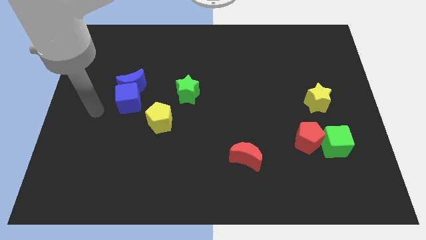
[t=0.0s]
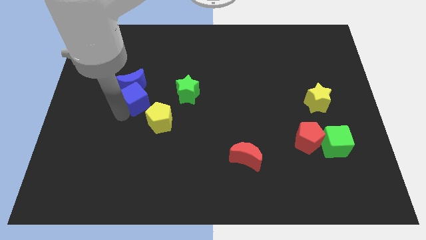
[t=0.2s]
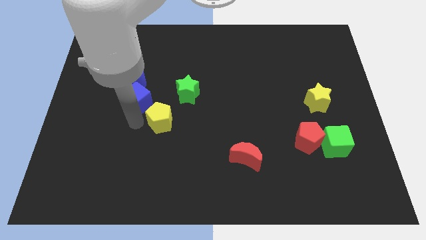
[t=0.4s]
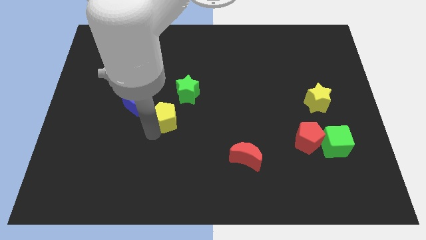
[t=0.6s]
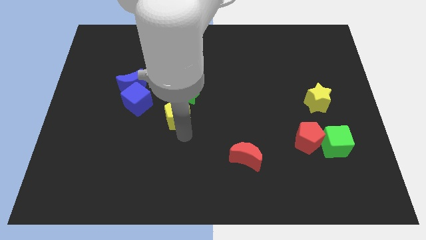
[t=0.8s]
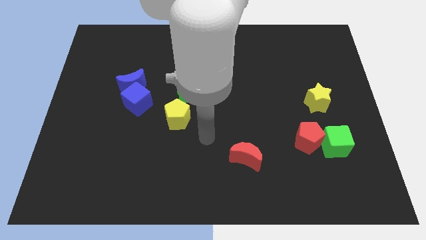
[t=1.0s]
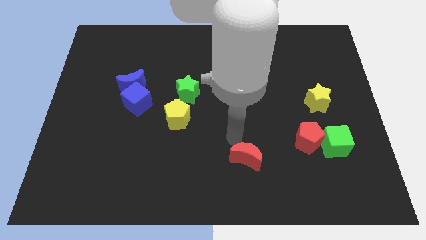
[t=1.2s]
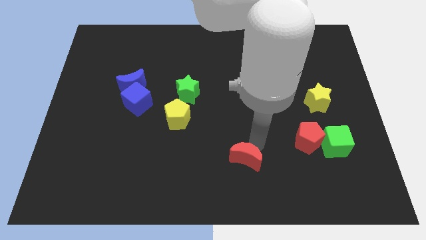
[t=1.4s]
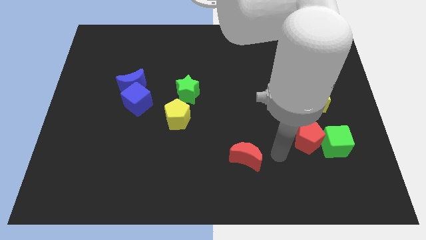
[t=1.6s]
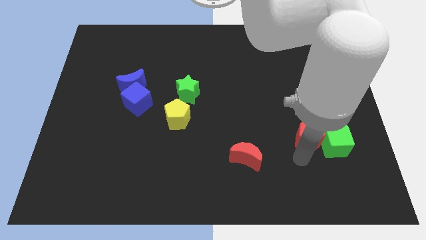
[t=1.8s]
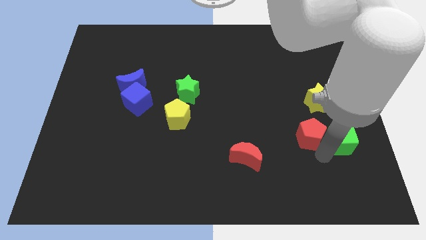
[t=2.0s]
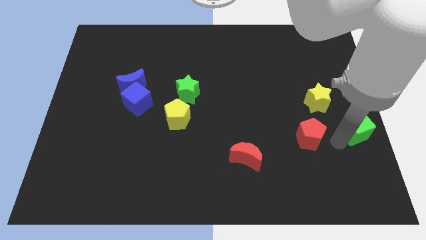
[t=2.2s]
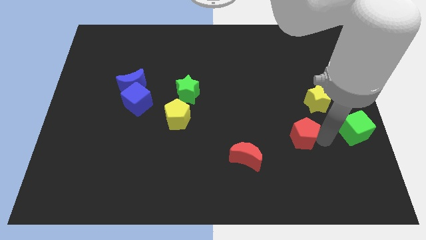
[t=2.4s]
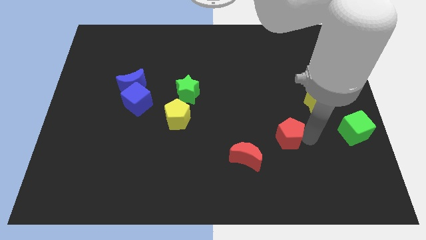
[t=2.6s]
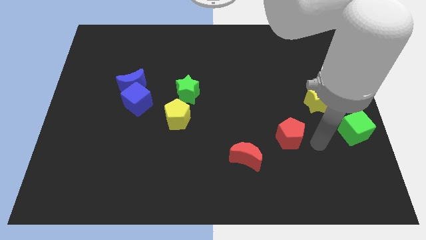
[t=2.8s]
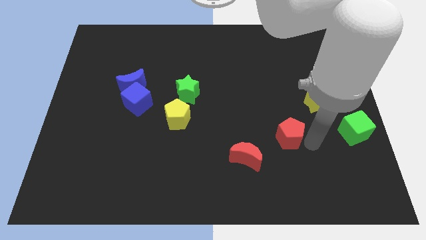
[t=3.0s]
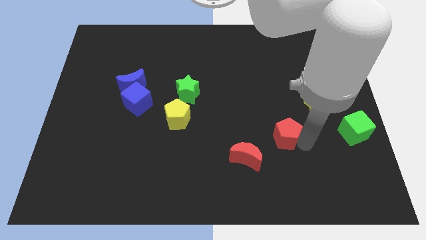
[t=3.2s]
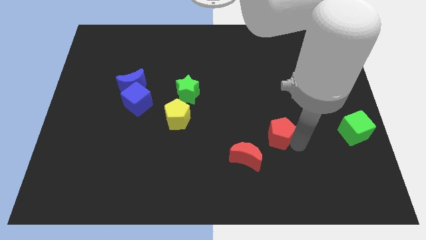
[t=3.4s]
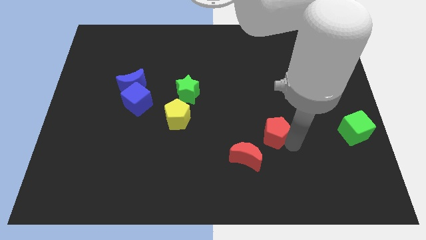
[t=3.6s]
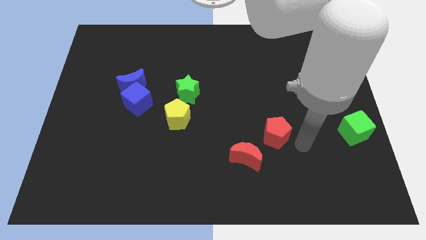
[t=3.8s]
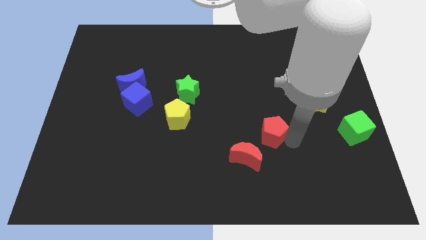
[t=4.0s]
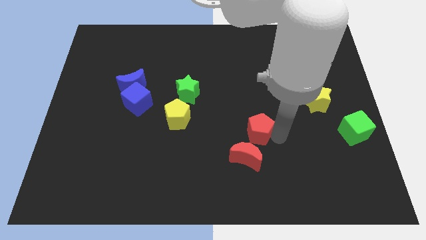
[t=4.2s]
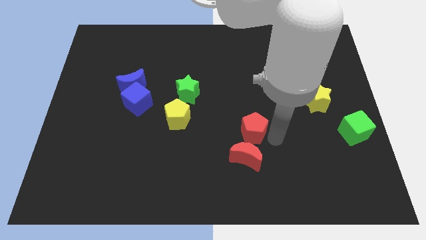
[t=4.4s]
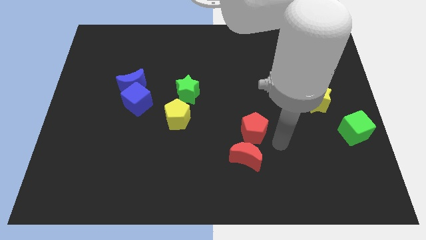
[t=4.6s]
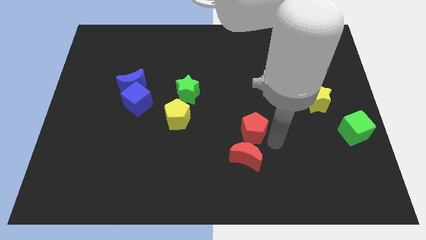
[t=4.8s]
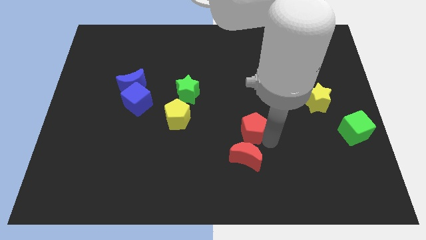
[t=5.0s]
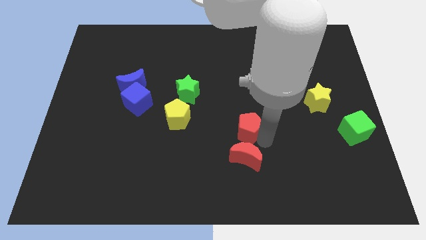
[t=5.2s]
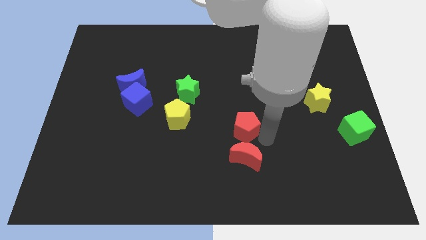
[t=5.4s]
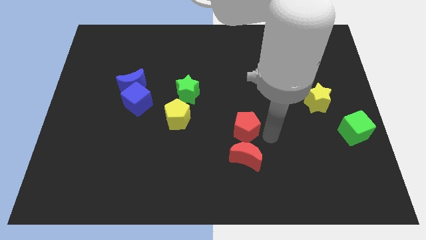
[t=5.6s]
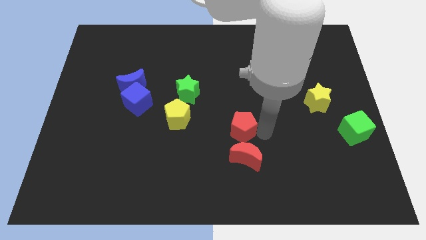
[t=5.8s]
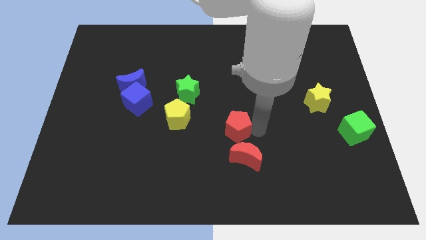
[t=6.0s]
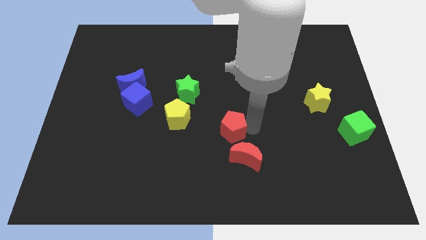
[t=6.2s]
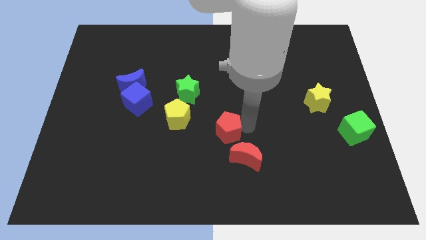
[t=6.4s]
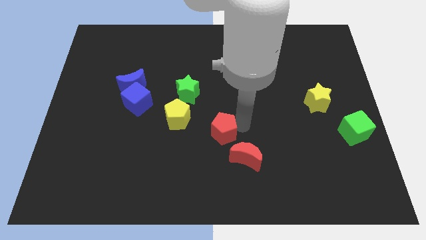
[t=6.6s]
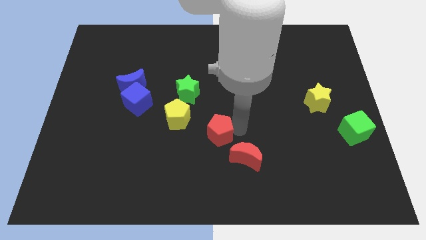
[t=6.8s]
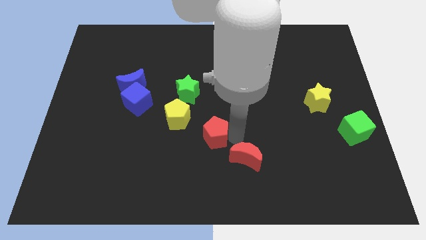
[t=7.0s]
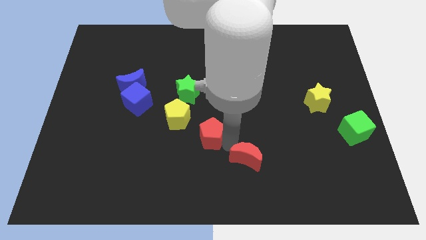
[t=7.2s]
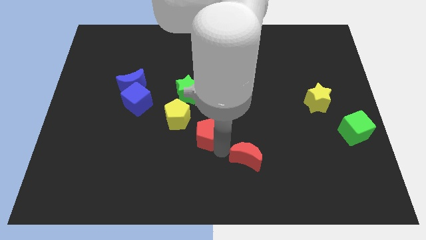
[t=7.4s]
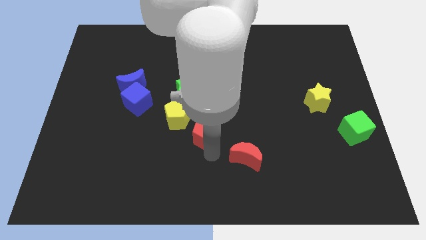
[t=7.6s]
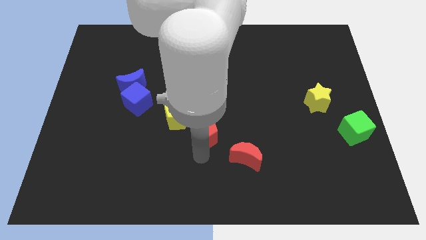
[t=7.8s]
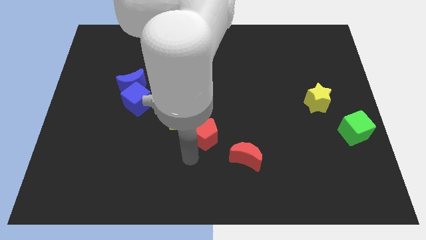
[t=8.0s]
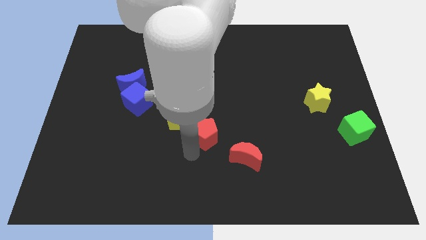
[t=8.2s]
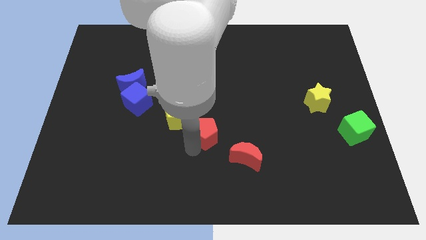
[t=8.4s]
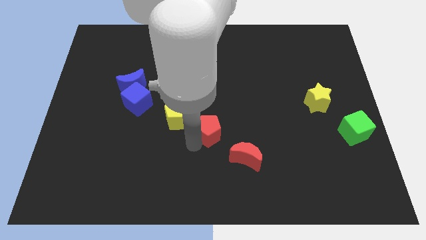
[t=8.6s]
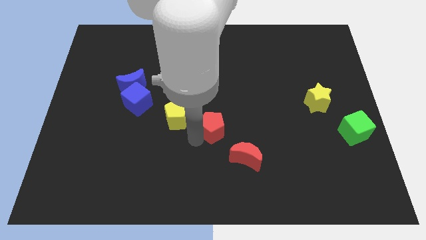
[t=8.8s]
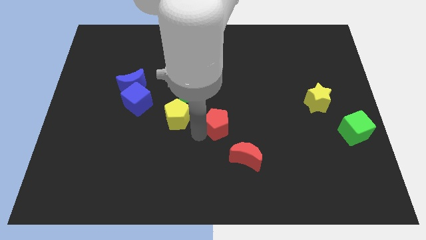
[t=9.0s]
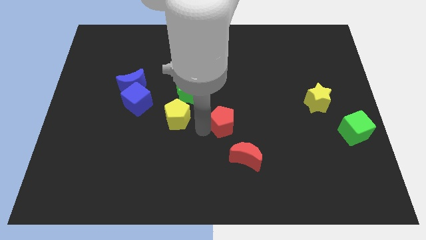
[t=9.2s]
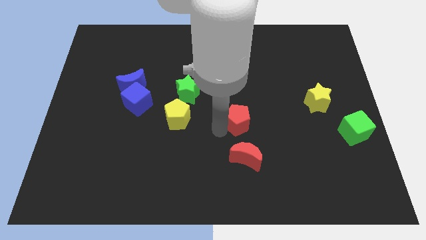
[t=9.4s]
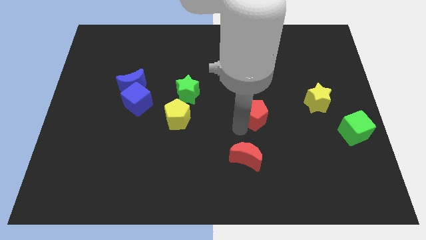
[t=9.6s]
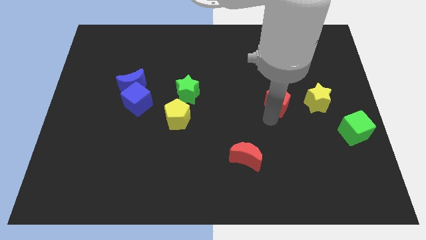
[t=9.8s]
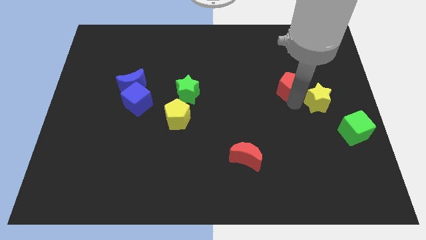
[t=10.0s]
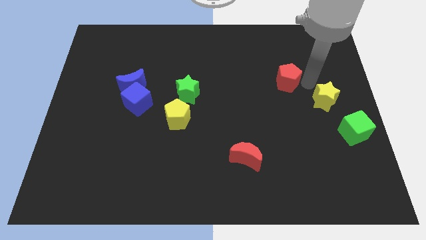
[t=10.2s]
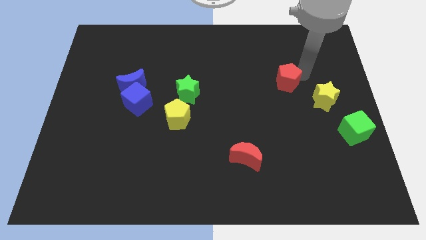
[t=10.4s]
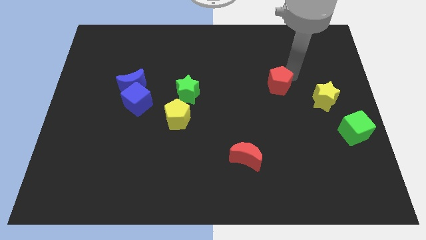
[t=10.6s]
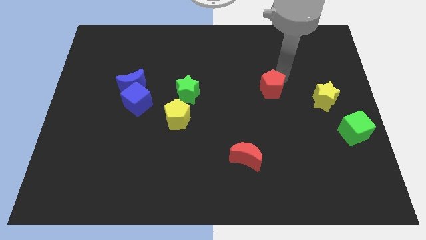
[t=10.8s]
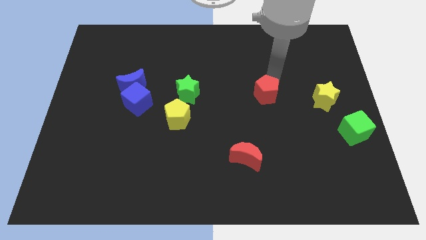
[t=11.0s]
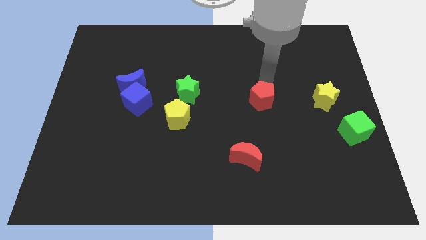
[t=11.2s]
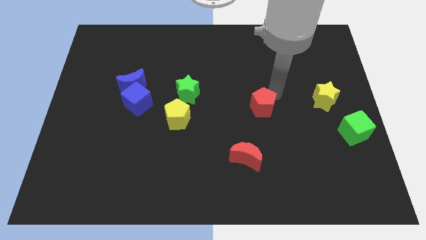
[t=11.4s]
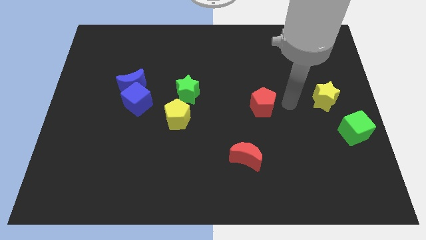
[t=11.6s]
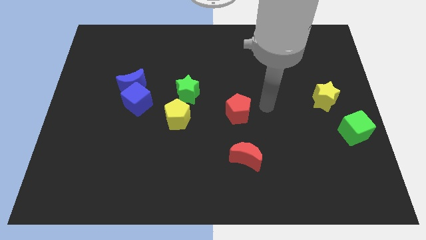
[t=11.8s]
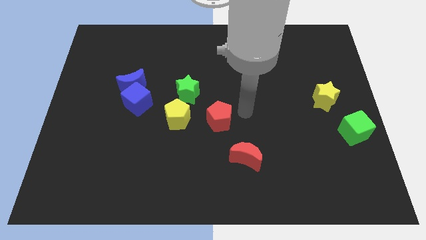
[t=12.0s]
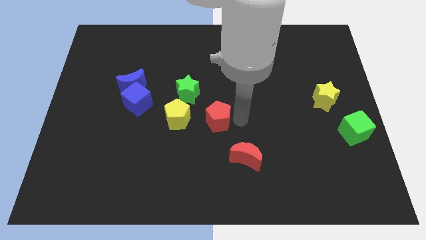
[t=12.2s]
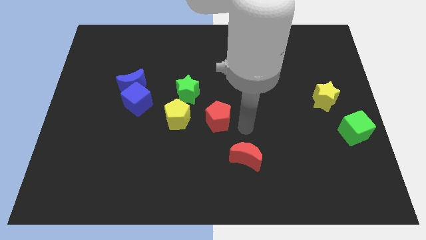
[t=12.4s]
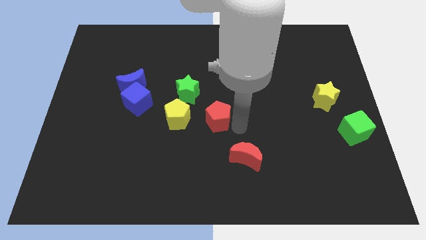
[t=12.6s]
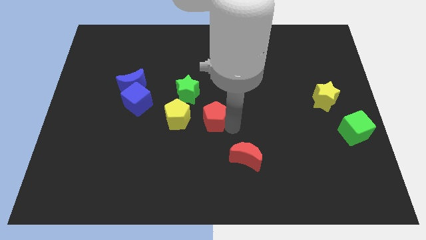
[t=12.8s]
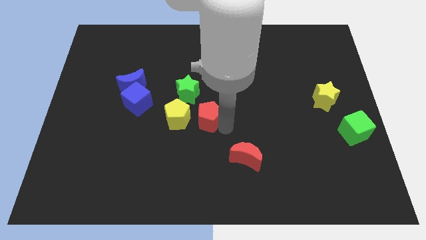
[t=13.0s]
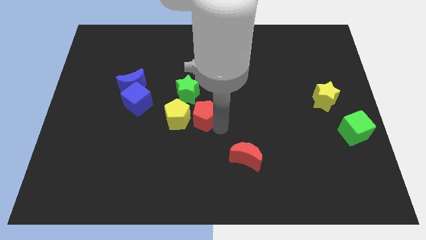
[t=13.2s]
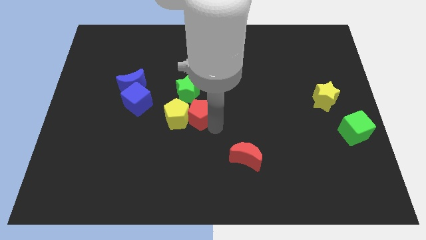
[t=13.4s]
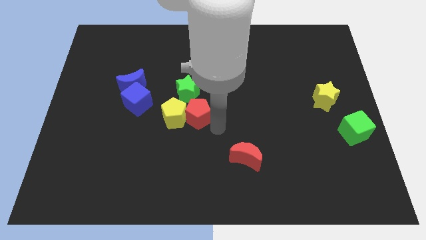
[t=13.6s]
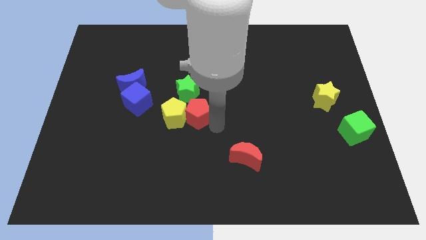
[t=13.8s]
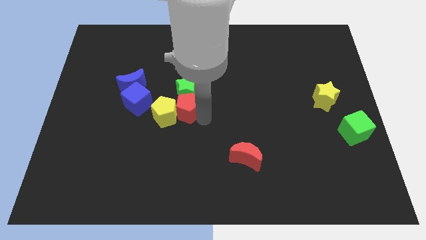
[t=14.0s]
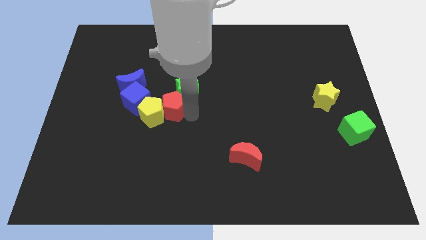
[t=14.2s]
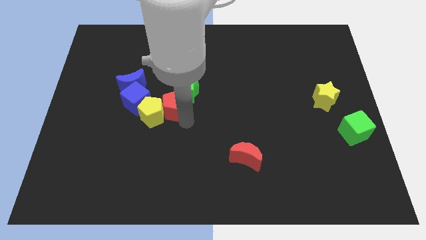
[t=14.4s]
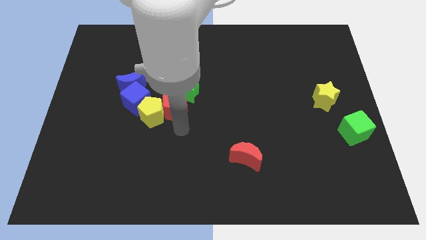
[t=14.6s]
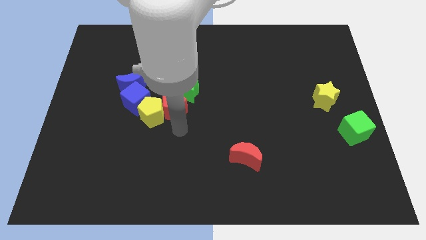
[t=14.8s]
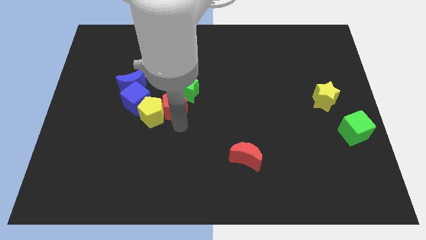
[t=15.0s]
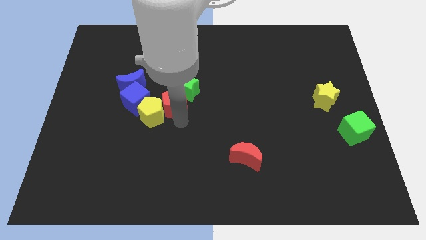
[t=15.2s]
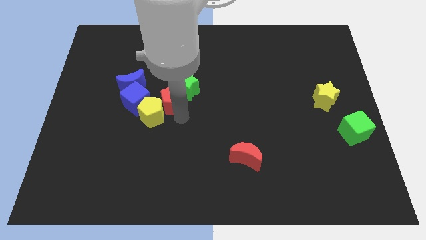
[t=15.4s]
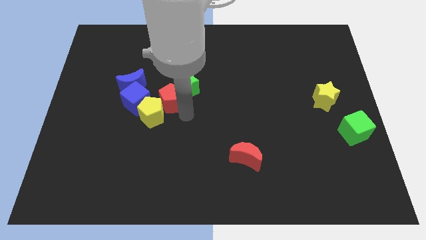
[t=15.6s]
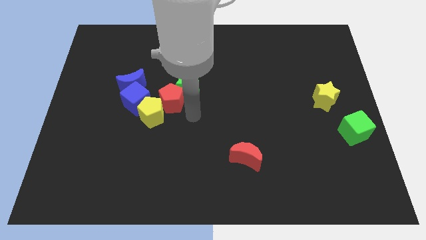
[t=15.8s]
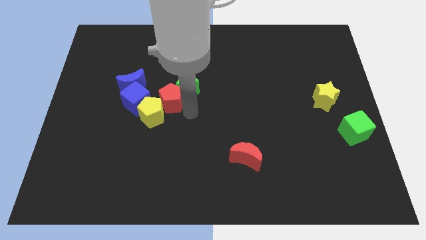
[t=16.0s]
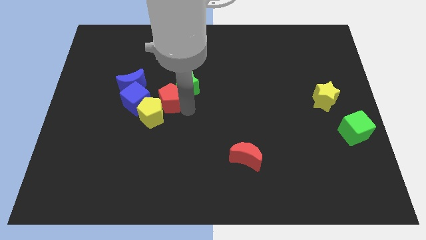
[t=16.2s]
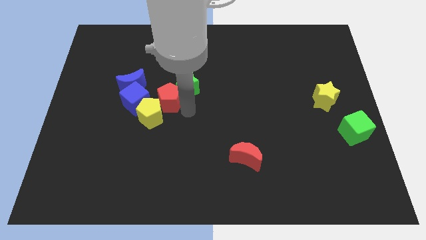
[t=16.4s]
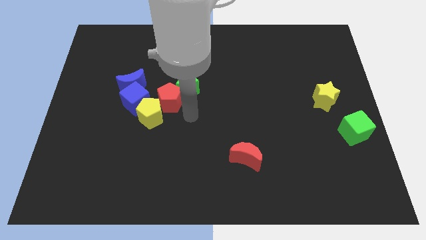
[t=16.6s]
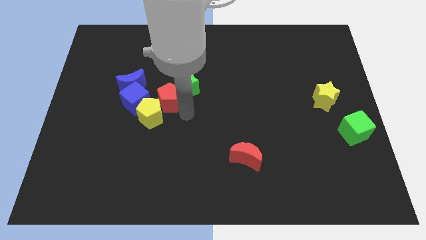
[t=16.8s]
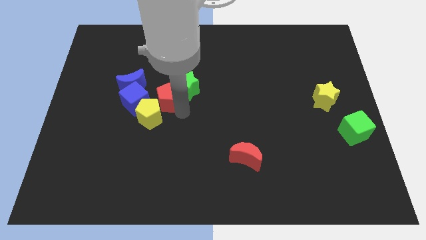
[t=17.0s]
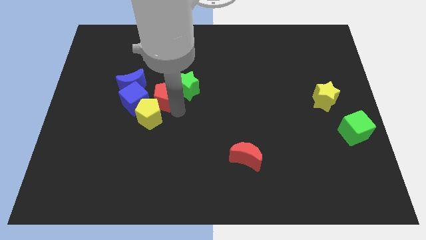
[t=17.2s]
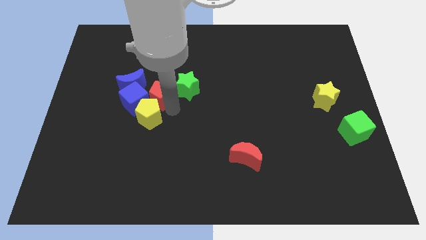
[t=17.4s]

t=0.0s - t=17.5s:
move the red pentagon towards the blue cube
